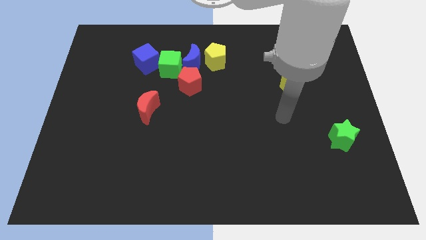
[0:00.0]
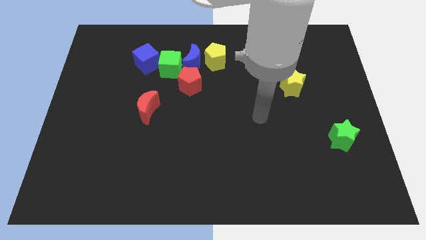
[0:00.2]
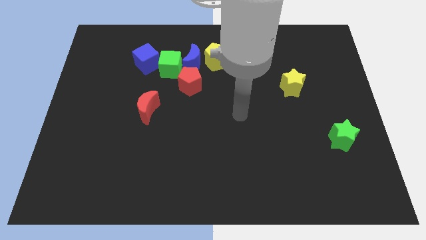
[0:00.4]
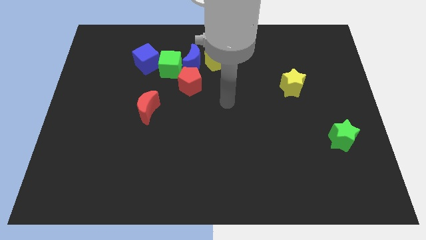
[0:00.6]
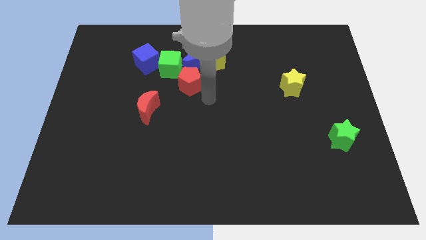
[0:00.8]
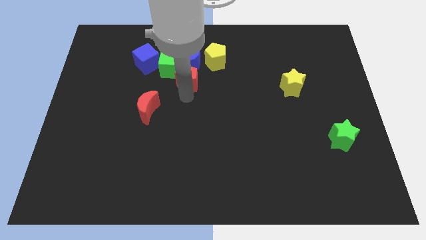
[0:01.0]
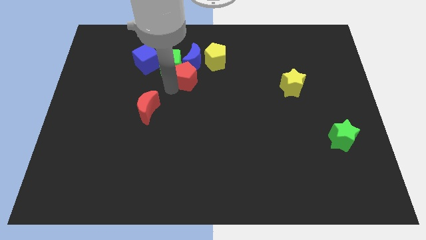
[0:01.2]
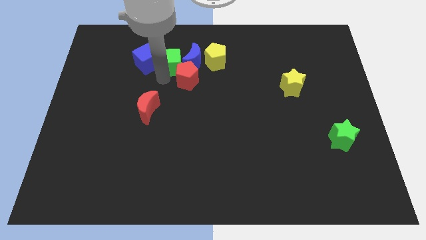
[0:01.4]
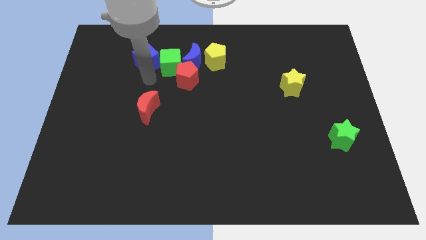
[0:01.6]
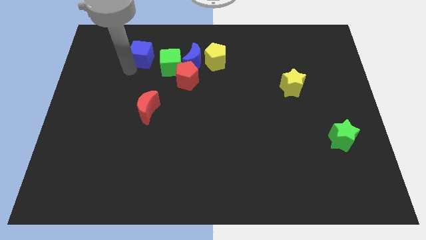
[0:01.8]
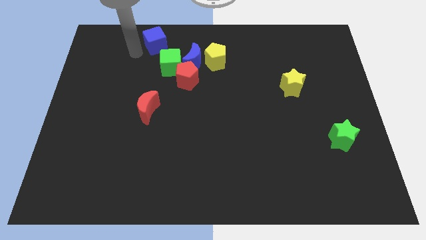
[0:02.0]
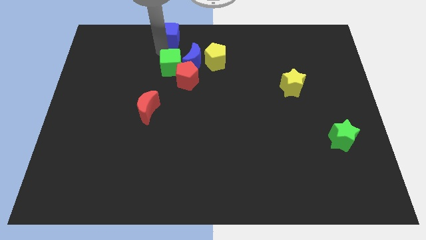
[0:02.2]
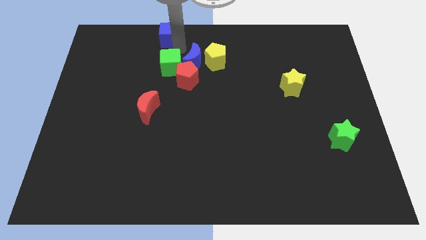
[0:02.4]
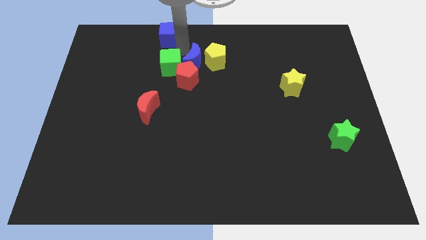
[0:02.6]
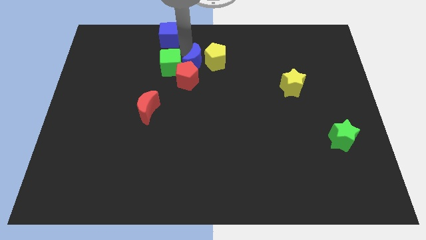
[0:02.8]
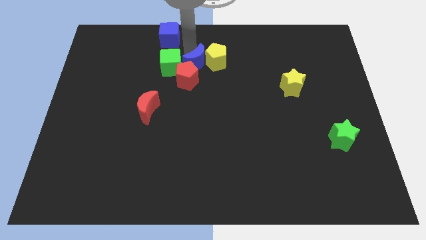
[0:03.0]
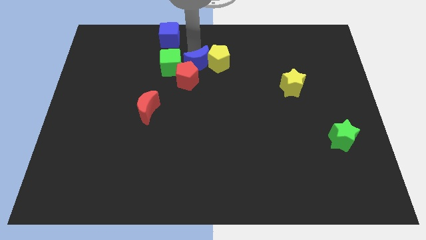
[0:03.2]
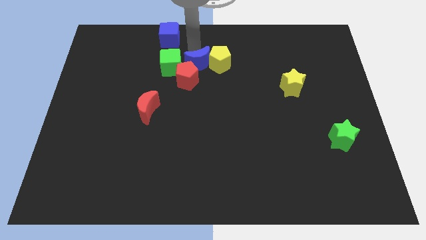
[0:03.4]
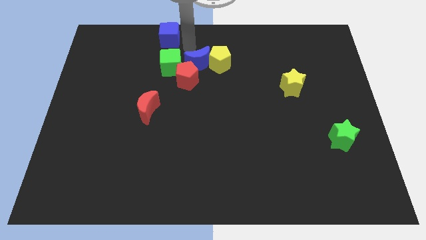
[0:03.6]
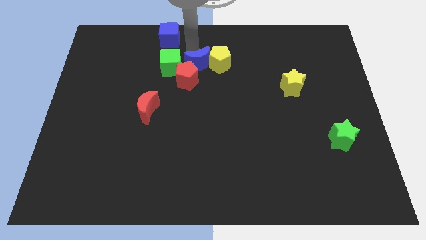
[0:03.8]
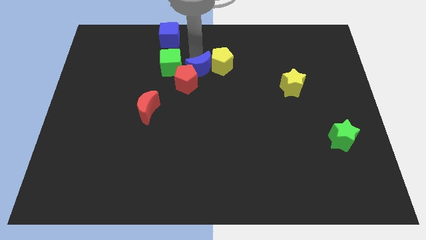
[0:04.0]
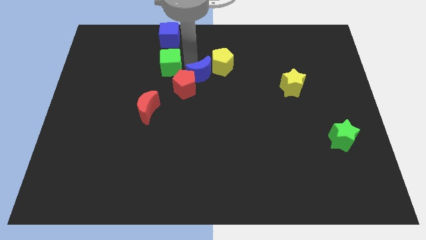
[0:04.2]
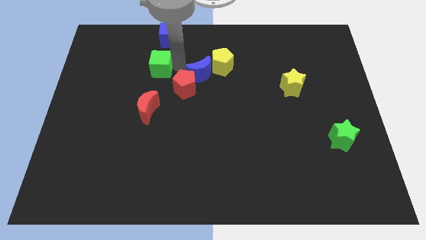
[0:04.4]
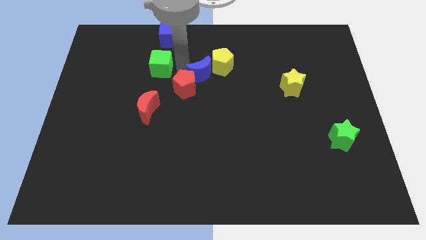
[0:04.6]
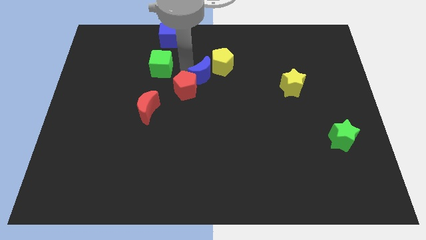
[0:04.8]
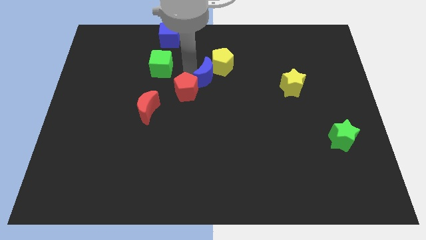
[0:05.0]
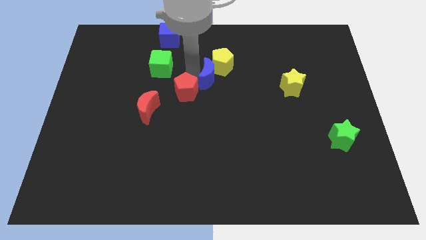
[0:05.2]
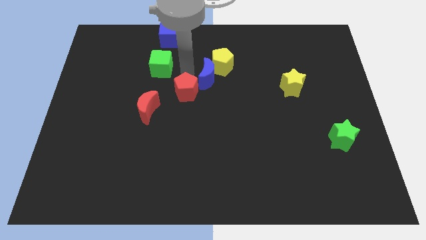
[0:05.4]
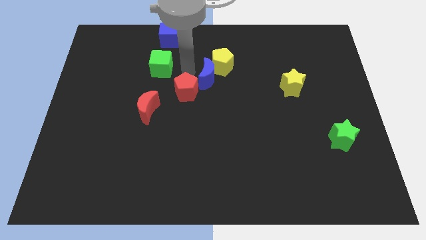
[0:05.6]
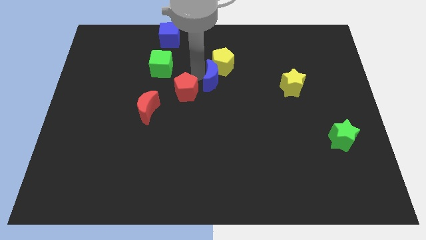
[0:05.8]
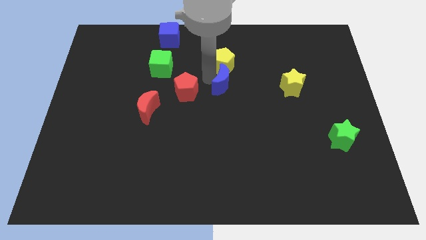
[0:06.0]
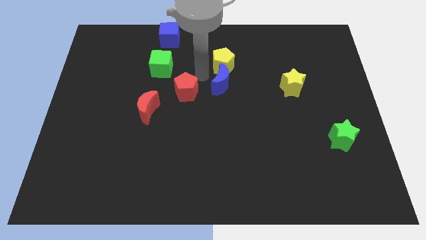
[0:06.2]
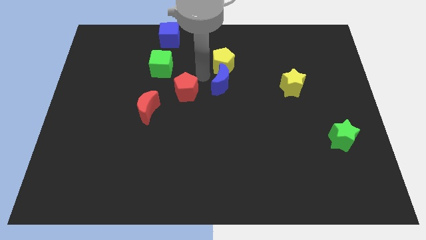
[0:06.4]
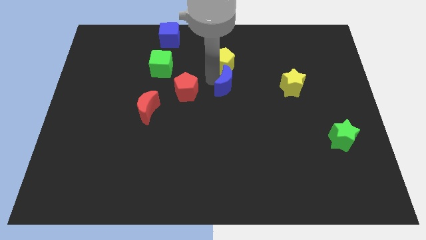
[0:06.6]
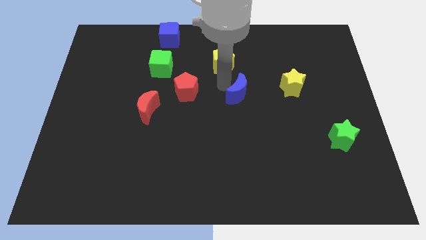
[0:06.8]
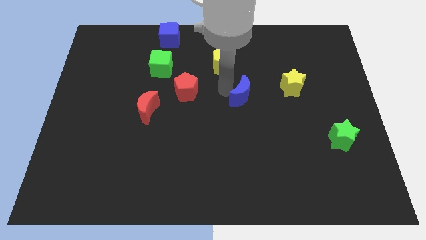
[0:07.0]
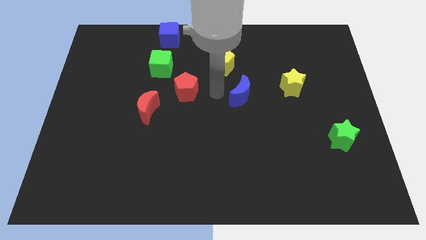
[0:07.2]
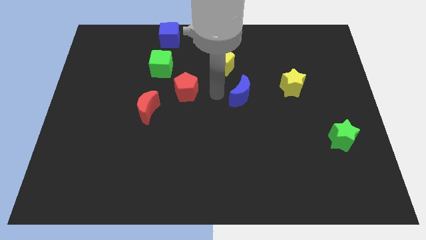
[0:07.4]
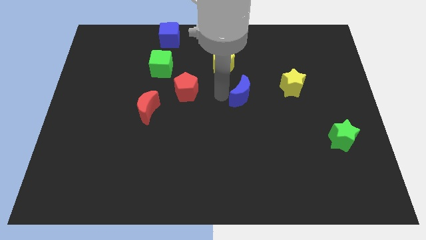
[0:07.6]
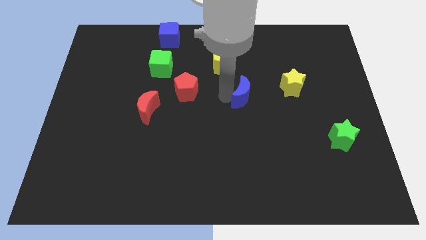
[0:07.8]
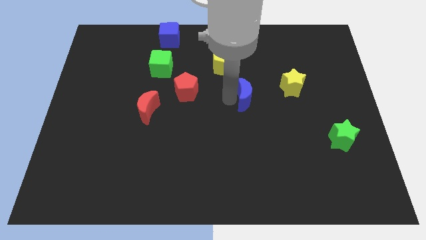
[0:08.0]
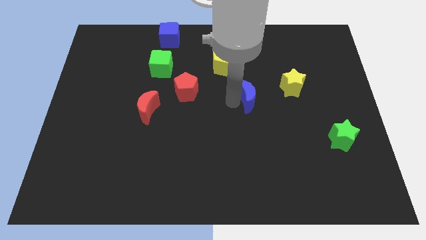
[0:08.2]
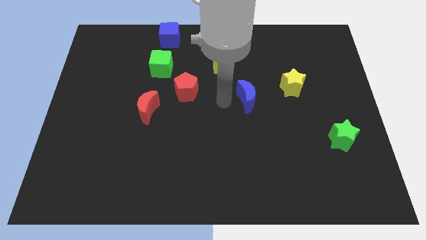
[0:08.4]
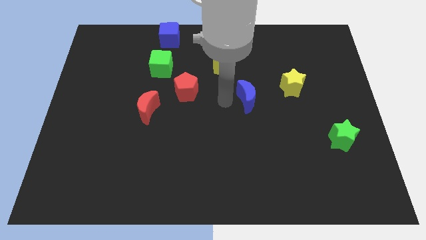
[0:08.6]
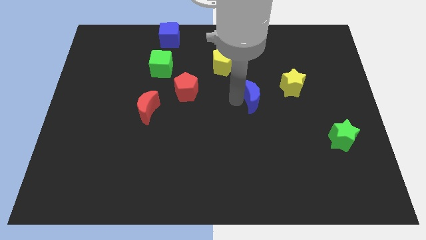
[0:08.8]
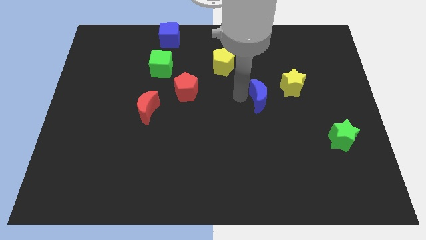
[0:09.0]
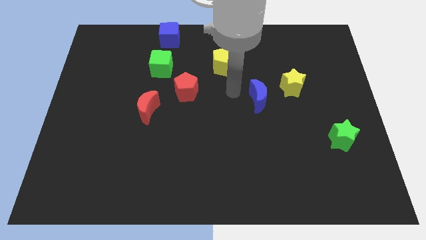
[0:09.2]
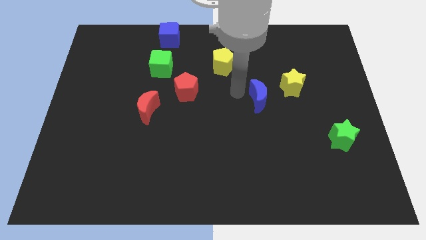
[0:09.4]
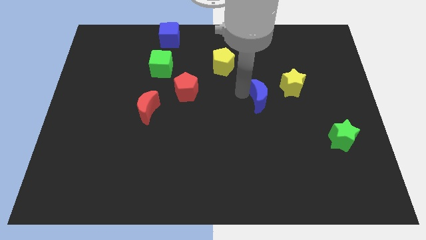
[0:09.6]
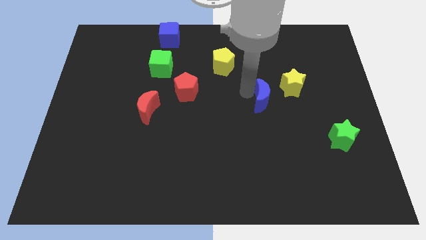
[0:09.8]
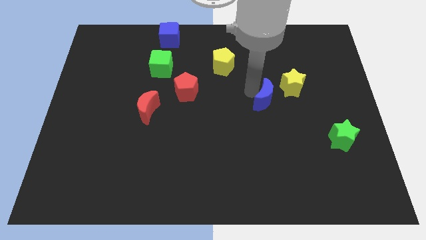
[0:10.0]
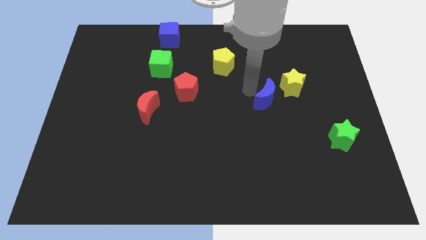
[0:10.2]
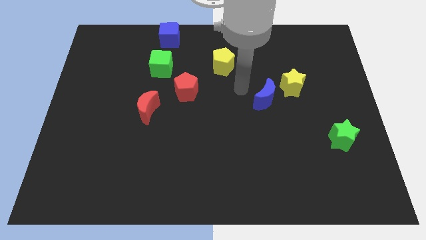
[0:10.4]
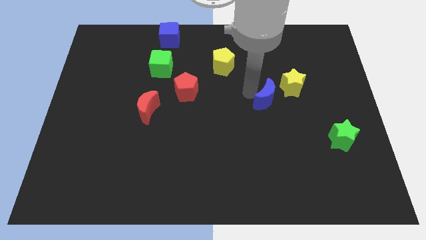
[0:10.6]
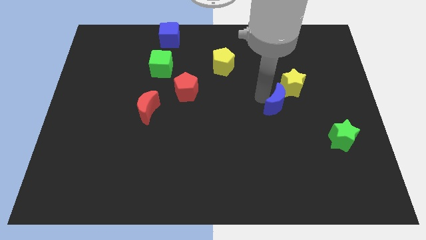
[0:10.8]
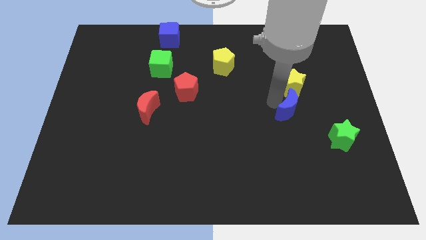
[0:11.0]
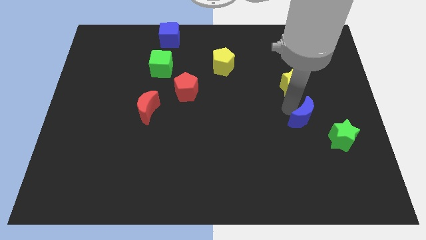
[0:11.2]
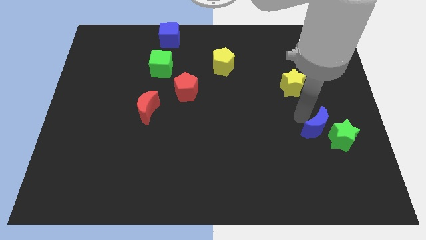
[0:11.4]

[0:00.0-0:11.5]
move the blue moon towards the green star

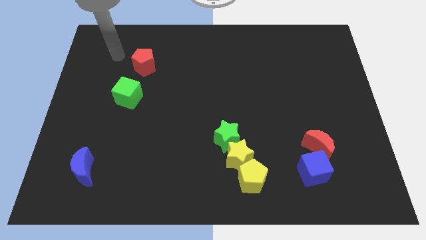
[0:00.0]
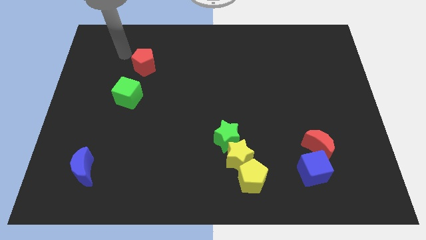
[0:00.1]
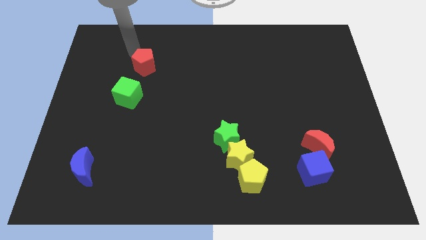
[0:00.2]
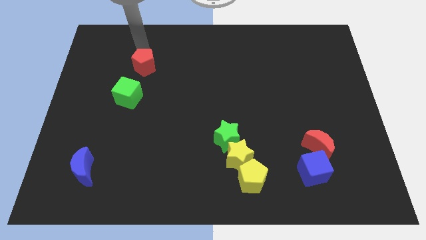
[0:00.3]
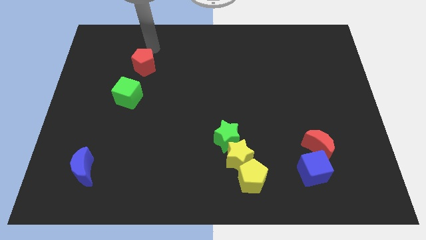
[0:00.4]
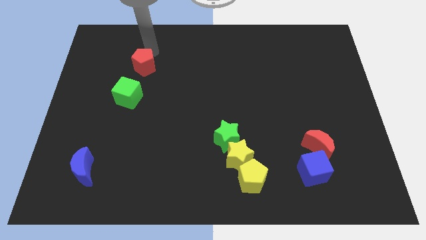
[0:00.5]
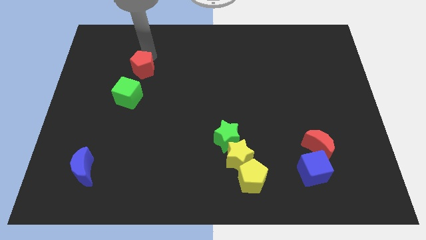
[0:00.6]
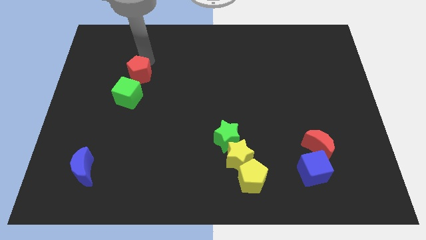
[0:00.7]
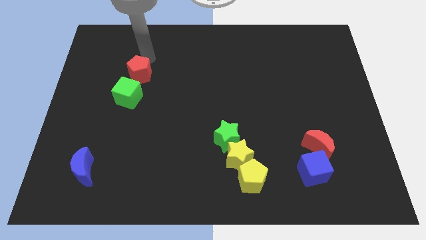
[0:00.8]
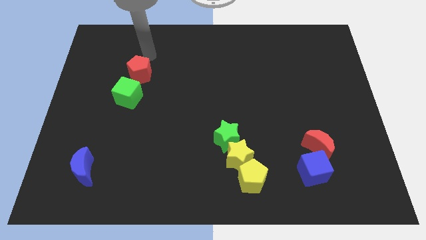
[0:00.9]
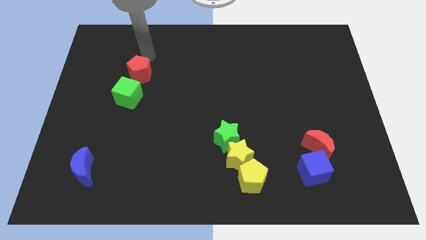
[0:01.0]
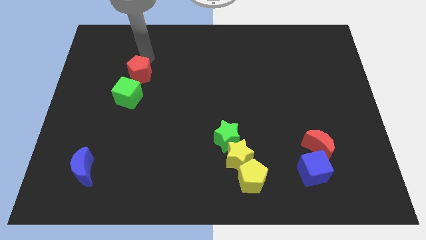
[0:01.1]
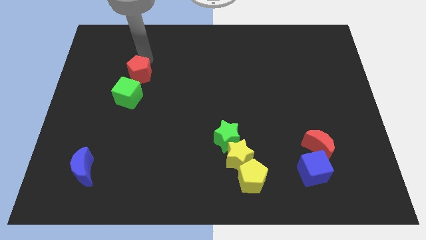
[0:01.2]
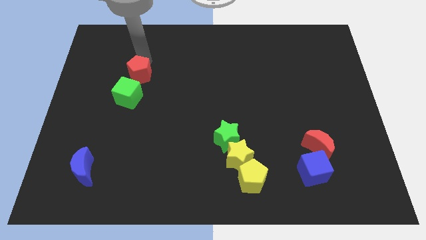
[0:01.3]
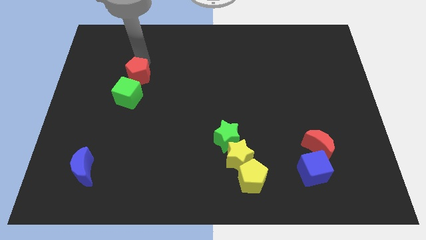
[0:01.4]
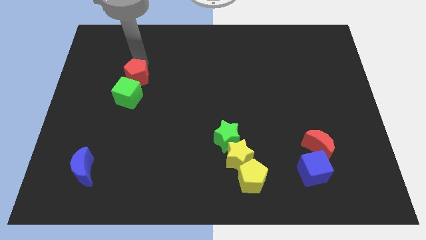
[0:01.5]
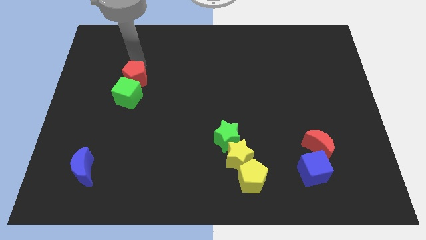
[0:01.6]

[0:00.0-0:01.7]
slide the red pentagon close to the green cube
